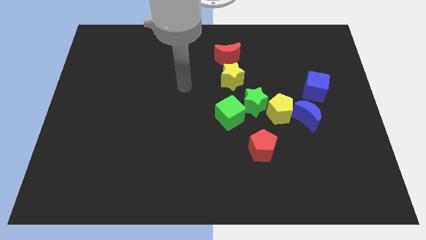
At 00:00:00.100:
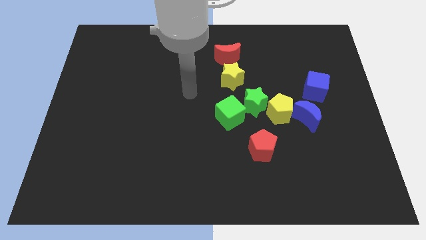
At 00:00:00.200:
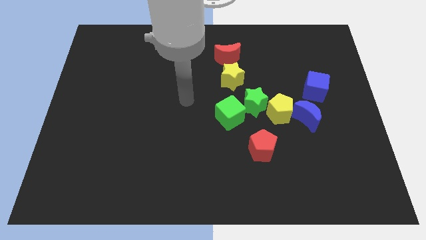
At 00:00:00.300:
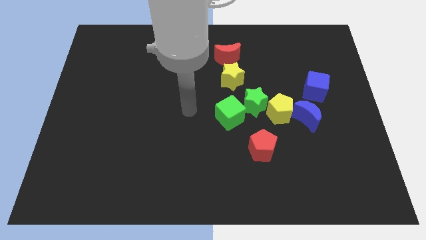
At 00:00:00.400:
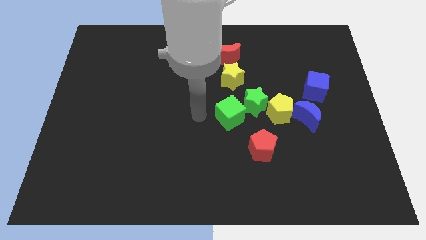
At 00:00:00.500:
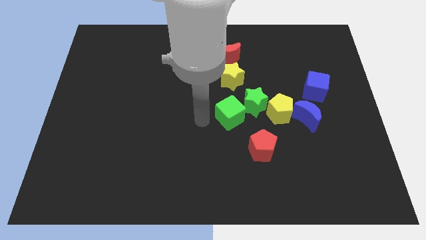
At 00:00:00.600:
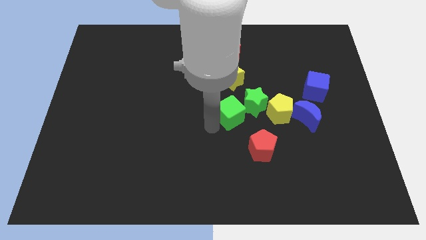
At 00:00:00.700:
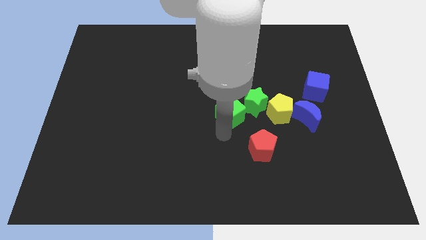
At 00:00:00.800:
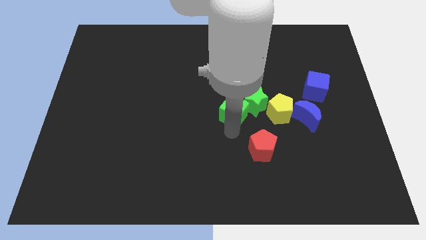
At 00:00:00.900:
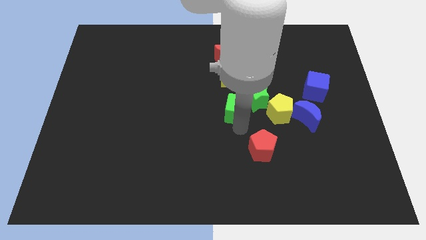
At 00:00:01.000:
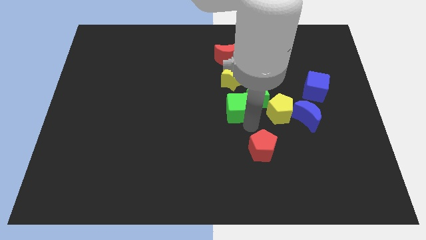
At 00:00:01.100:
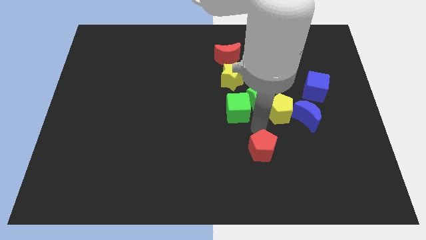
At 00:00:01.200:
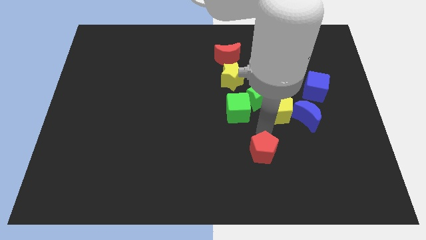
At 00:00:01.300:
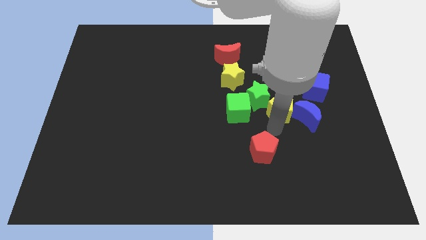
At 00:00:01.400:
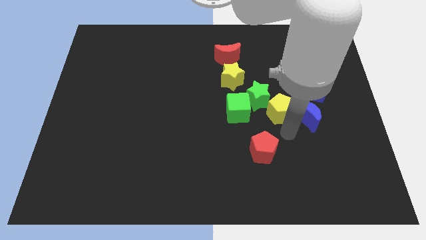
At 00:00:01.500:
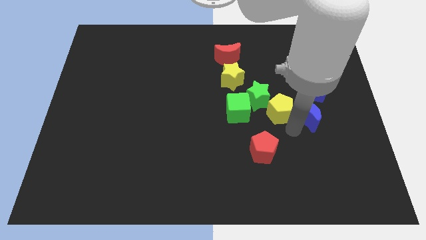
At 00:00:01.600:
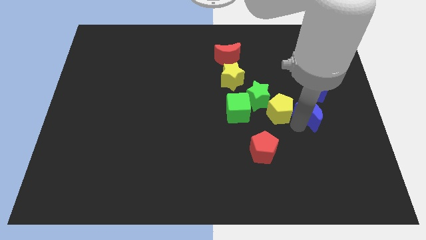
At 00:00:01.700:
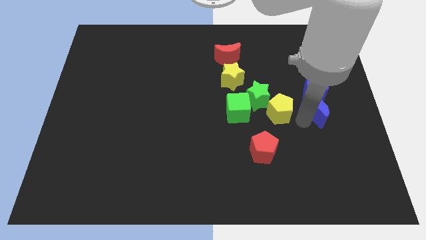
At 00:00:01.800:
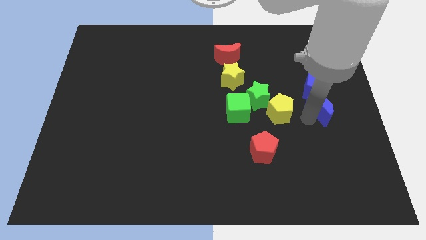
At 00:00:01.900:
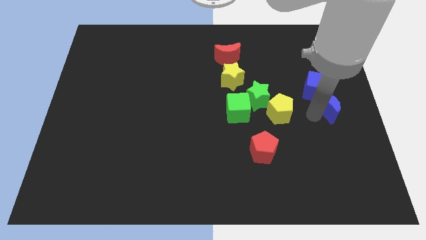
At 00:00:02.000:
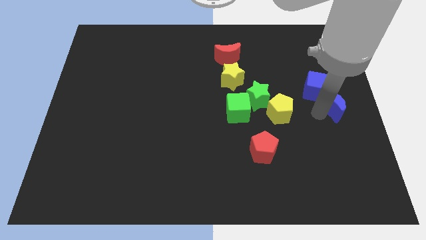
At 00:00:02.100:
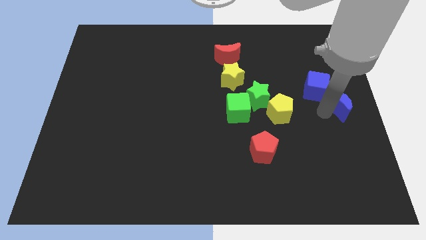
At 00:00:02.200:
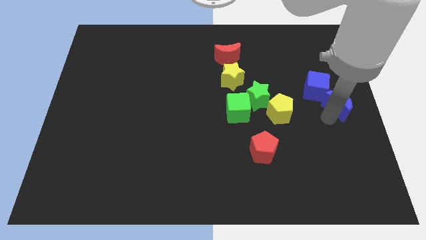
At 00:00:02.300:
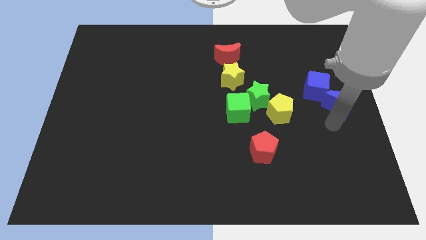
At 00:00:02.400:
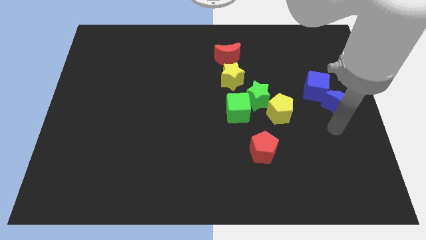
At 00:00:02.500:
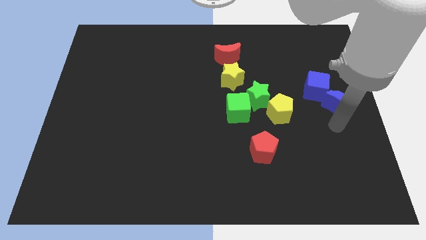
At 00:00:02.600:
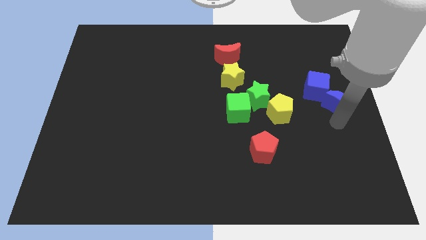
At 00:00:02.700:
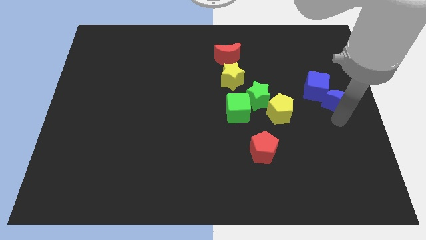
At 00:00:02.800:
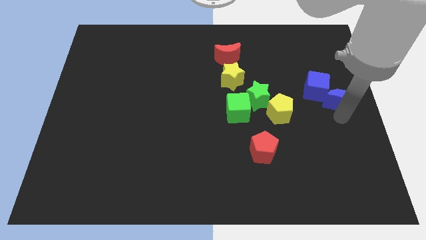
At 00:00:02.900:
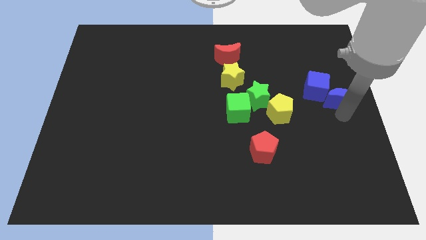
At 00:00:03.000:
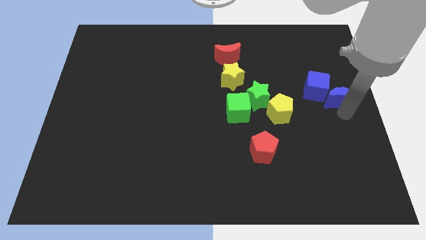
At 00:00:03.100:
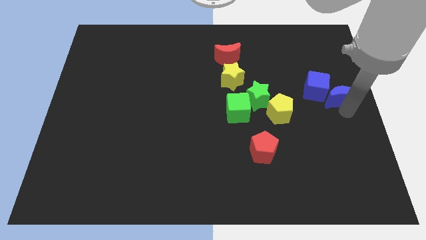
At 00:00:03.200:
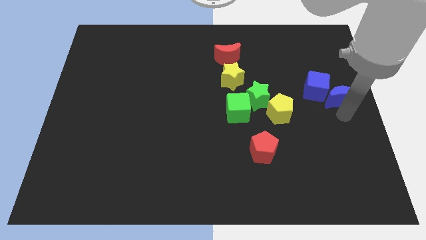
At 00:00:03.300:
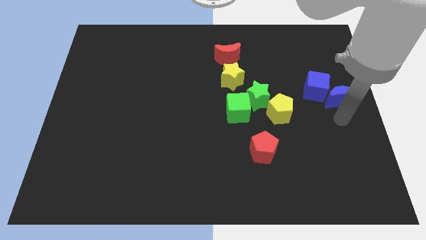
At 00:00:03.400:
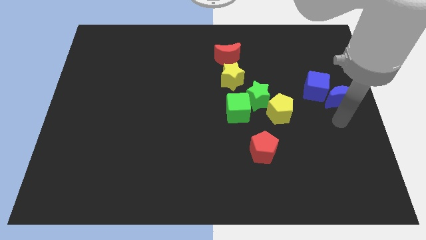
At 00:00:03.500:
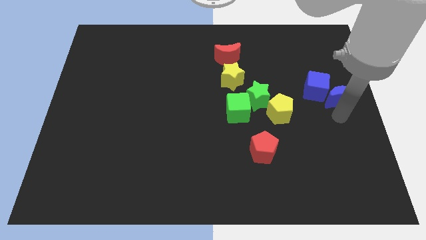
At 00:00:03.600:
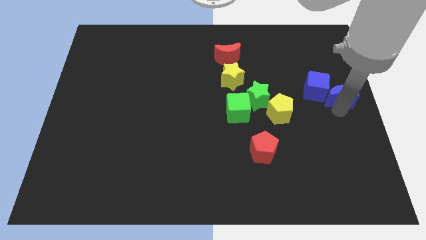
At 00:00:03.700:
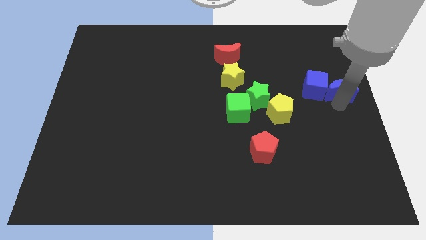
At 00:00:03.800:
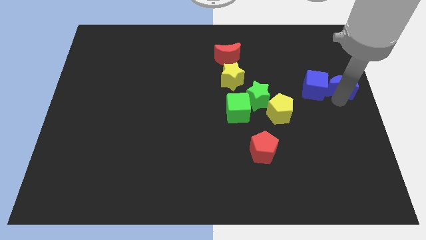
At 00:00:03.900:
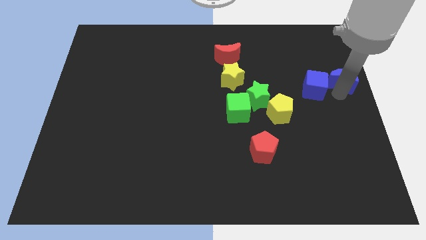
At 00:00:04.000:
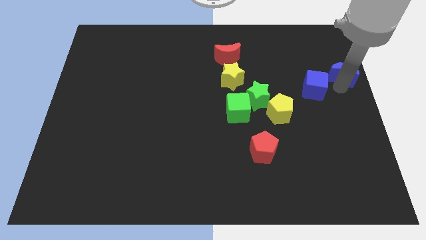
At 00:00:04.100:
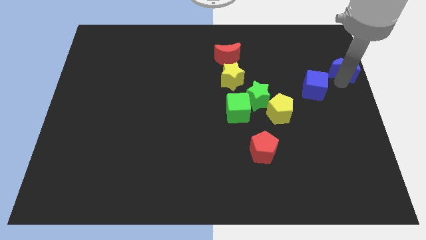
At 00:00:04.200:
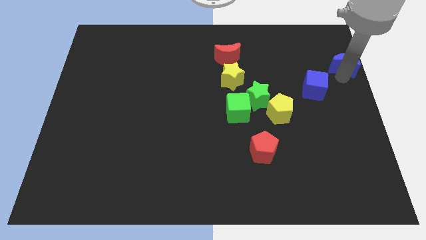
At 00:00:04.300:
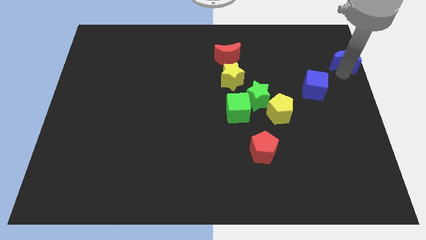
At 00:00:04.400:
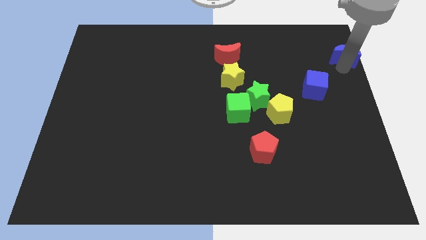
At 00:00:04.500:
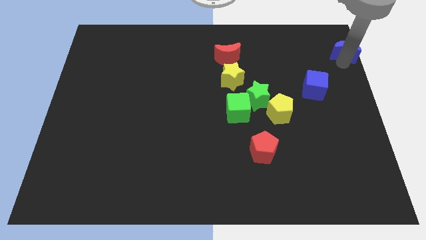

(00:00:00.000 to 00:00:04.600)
push the blue moon to the top right

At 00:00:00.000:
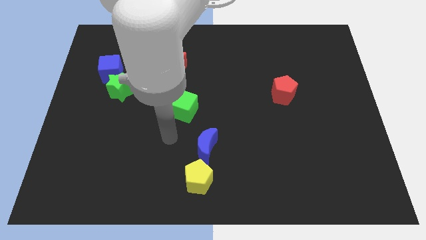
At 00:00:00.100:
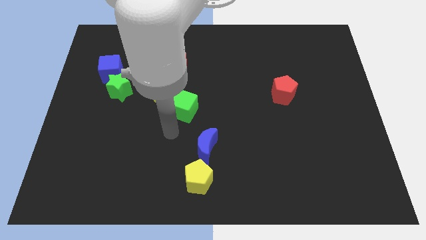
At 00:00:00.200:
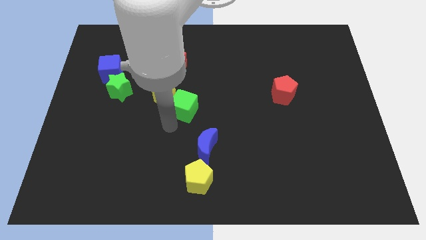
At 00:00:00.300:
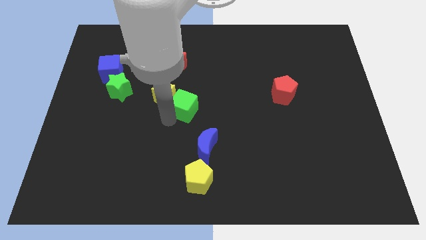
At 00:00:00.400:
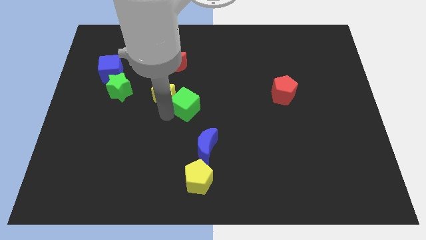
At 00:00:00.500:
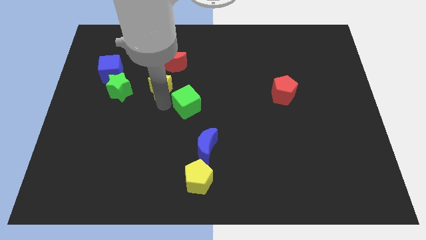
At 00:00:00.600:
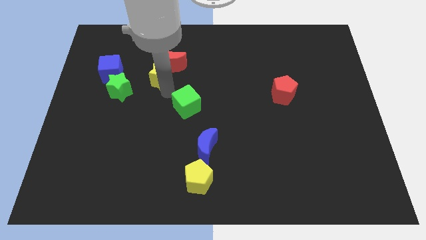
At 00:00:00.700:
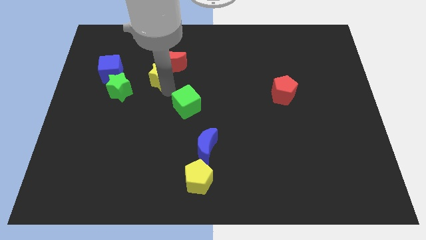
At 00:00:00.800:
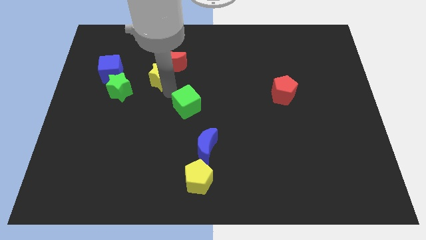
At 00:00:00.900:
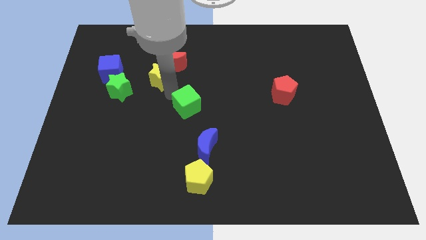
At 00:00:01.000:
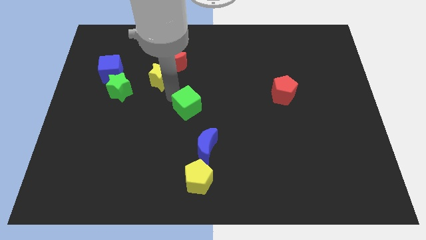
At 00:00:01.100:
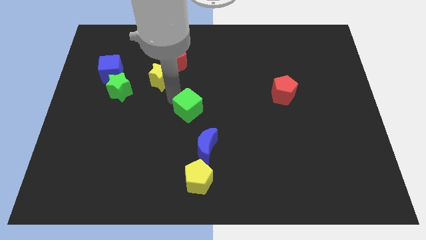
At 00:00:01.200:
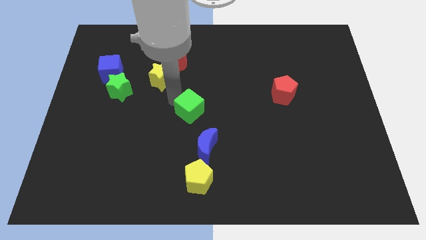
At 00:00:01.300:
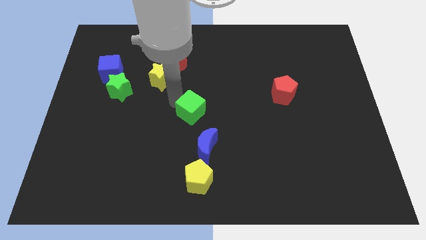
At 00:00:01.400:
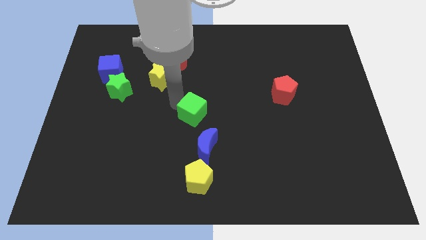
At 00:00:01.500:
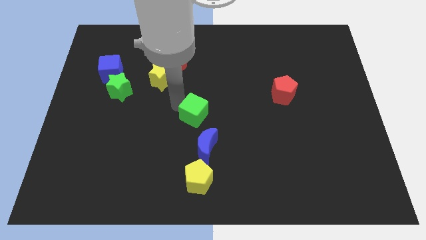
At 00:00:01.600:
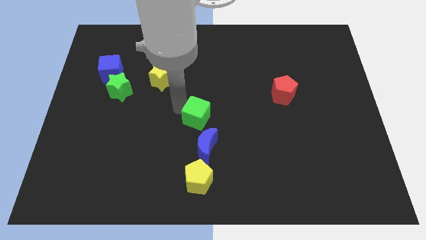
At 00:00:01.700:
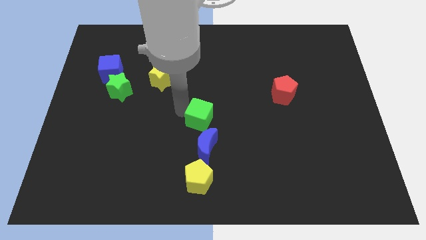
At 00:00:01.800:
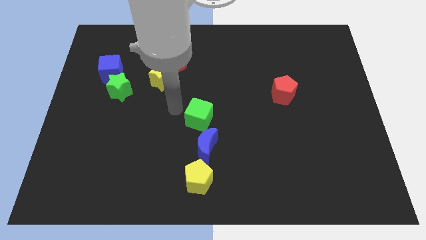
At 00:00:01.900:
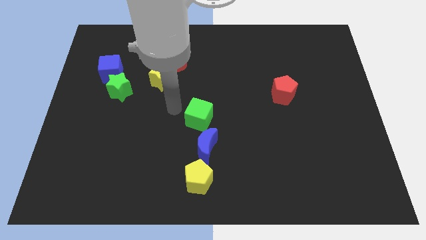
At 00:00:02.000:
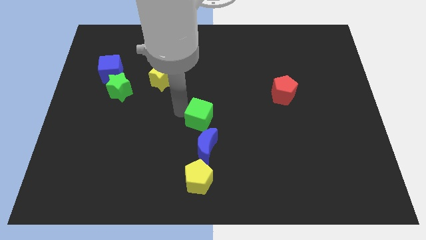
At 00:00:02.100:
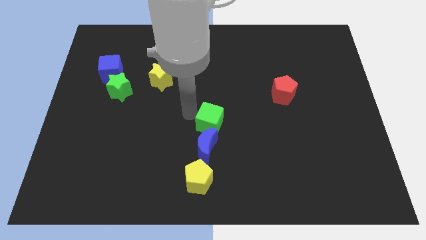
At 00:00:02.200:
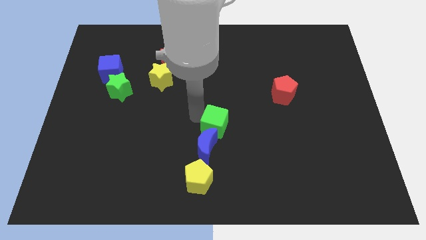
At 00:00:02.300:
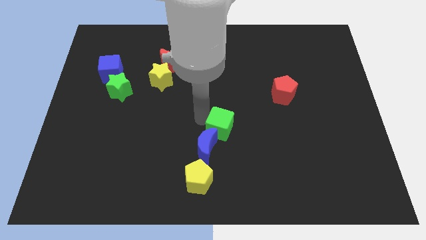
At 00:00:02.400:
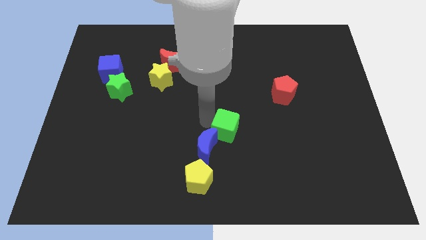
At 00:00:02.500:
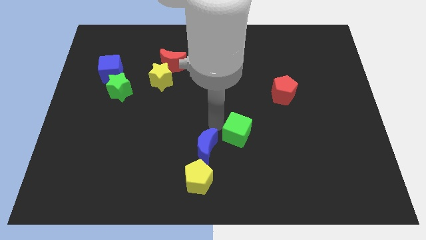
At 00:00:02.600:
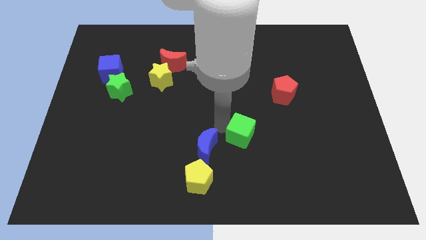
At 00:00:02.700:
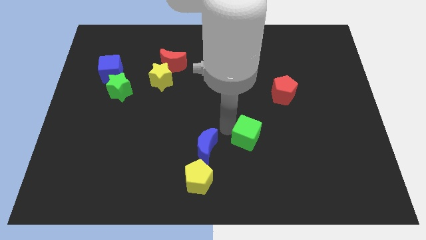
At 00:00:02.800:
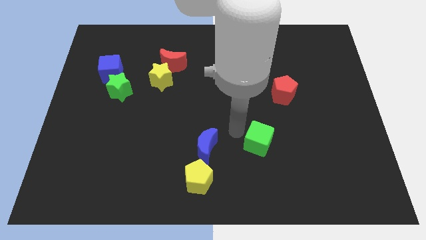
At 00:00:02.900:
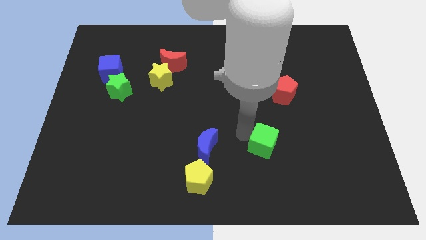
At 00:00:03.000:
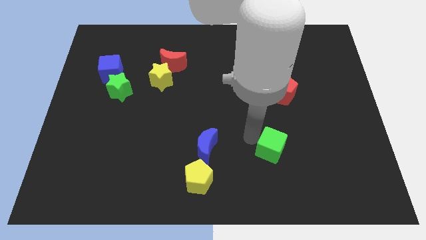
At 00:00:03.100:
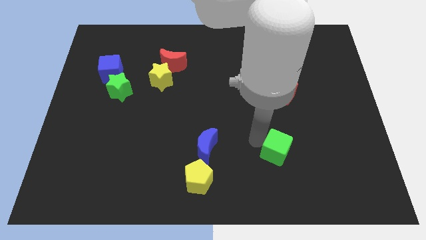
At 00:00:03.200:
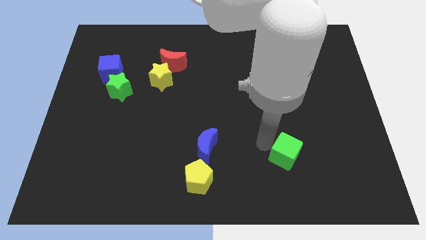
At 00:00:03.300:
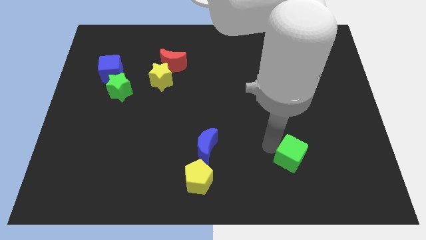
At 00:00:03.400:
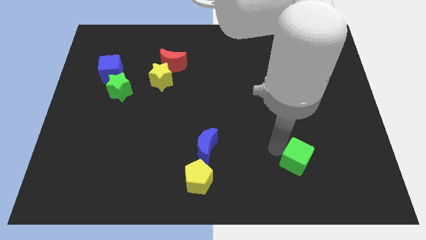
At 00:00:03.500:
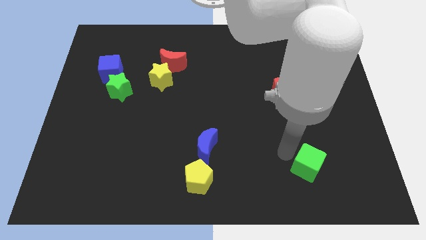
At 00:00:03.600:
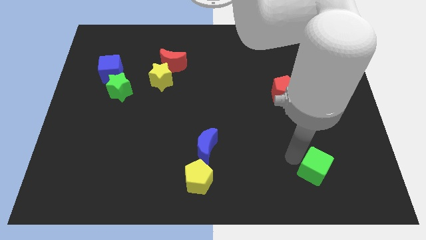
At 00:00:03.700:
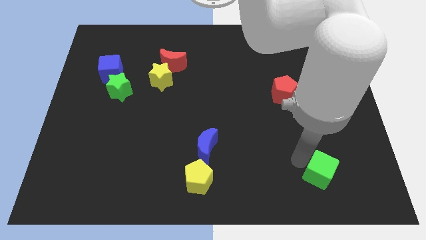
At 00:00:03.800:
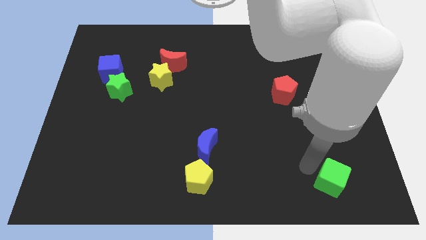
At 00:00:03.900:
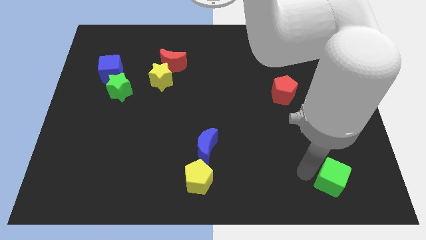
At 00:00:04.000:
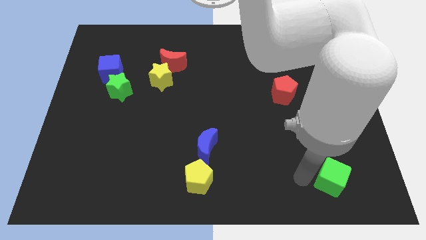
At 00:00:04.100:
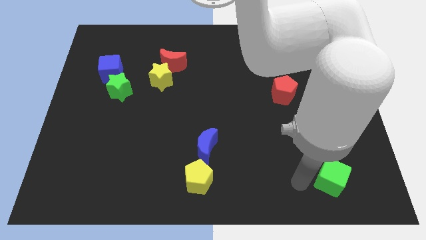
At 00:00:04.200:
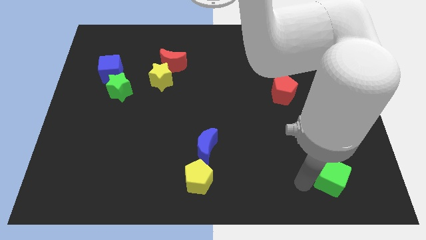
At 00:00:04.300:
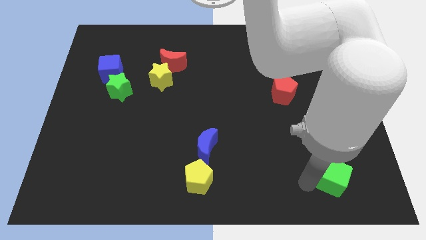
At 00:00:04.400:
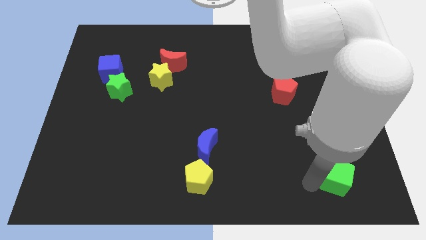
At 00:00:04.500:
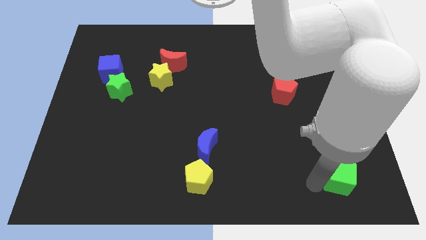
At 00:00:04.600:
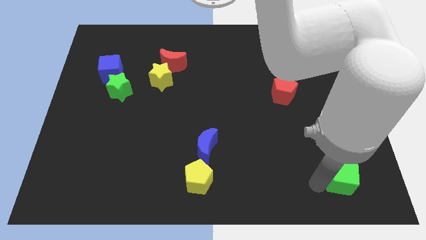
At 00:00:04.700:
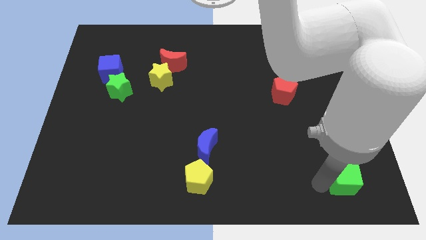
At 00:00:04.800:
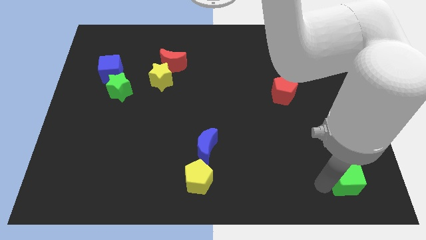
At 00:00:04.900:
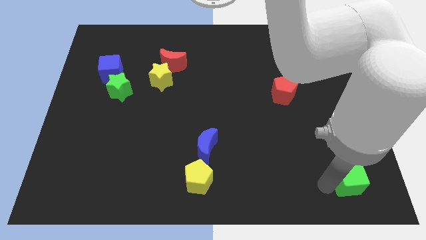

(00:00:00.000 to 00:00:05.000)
put the green cube to the bottom right of the board
